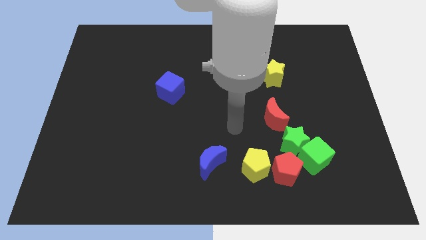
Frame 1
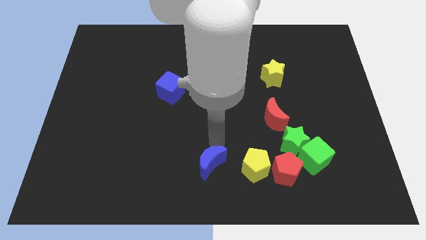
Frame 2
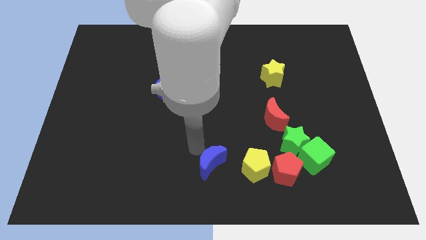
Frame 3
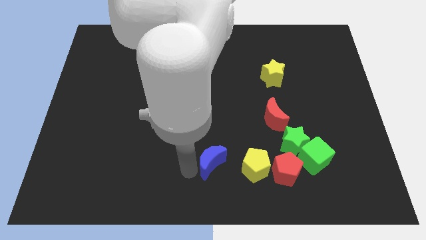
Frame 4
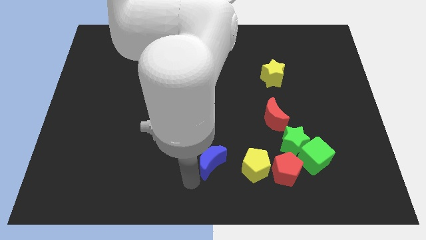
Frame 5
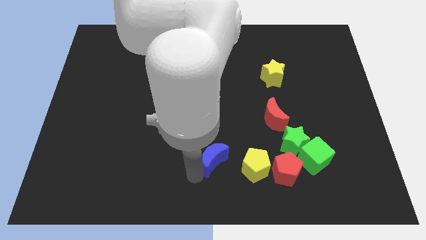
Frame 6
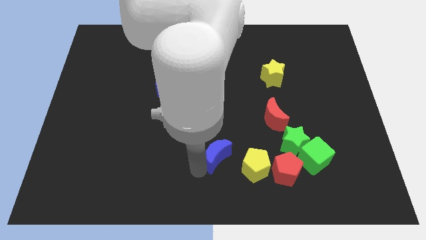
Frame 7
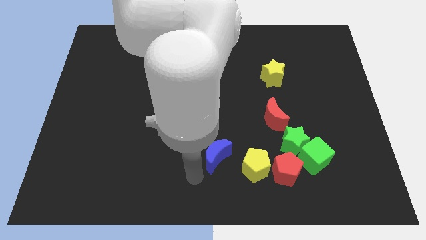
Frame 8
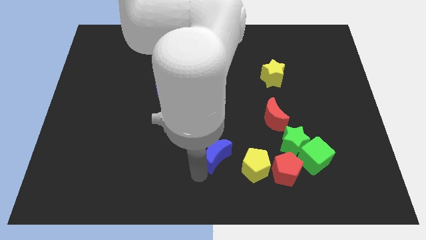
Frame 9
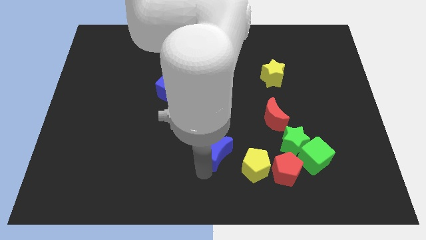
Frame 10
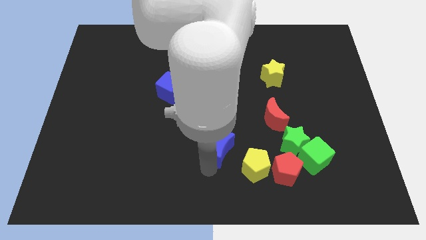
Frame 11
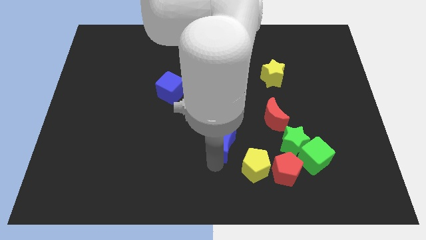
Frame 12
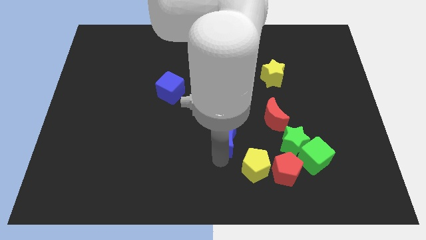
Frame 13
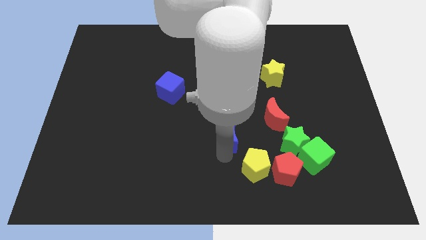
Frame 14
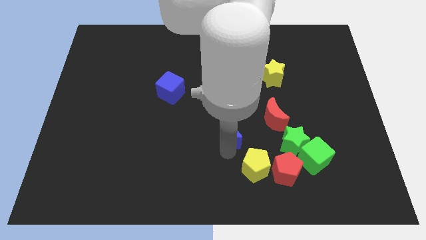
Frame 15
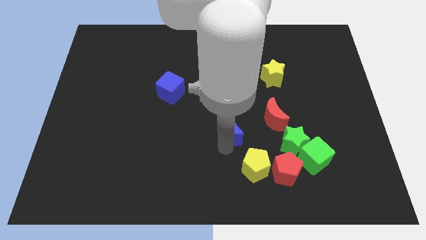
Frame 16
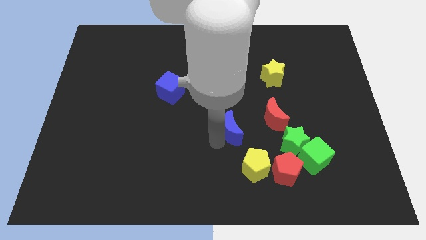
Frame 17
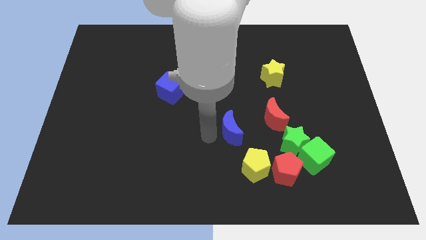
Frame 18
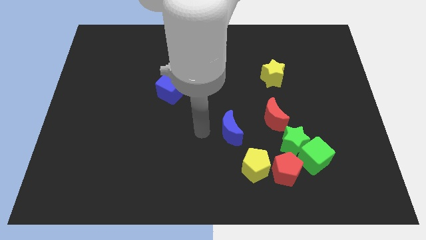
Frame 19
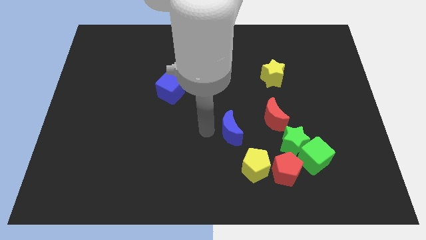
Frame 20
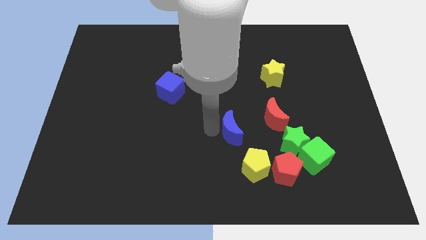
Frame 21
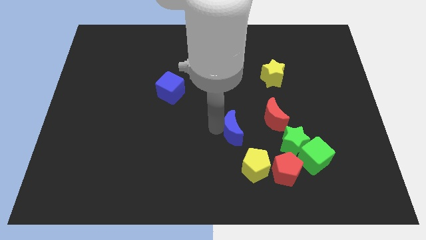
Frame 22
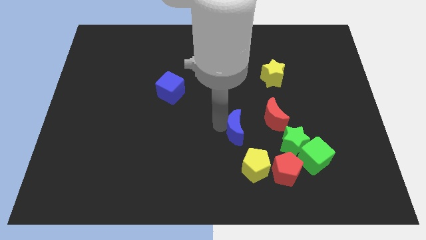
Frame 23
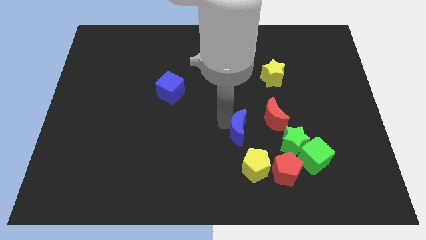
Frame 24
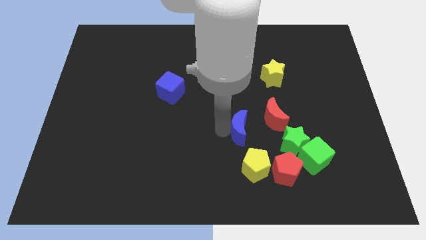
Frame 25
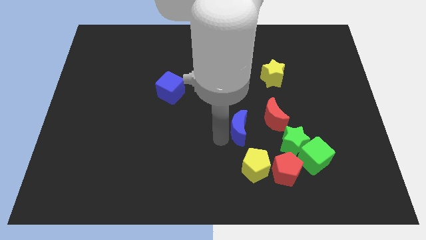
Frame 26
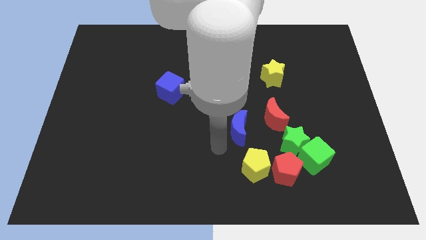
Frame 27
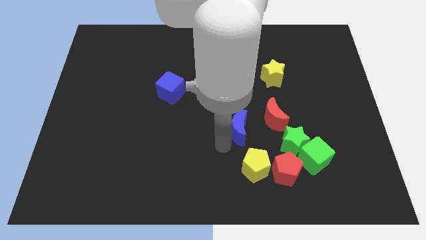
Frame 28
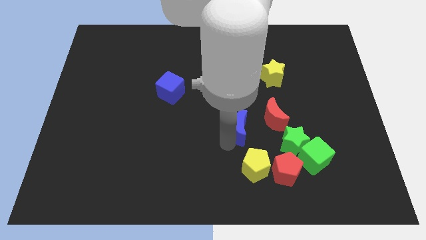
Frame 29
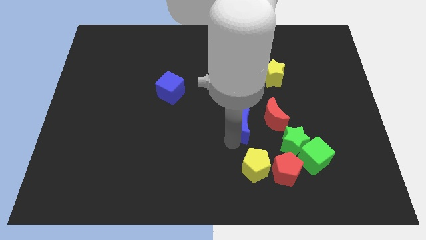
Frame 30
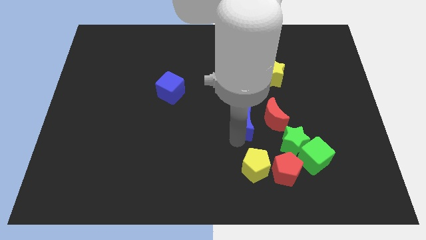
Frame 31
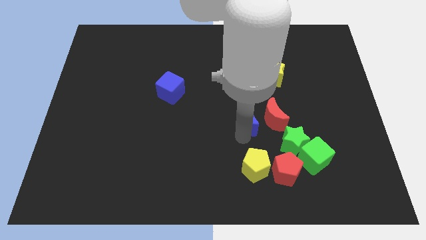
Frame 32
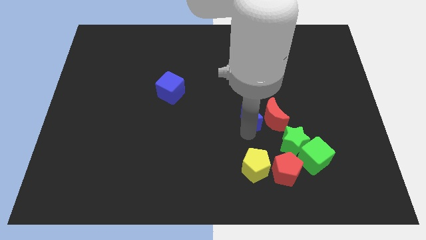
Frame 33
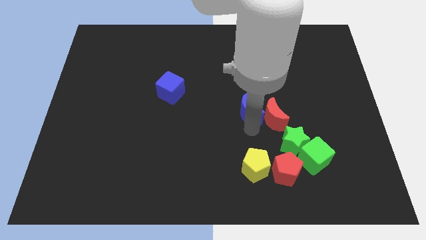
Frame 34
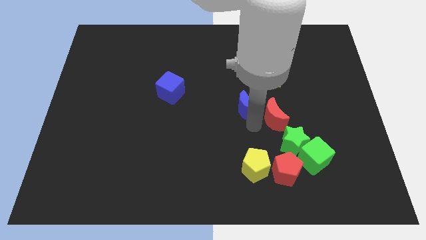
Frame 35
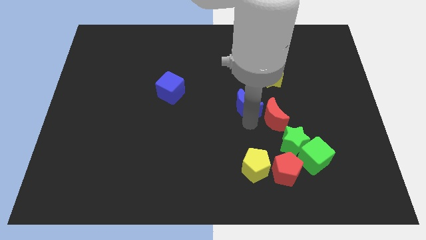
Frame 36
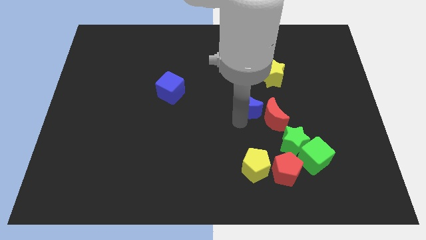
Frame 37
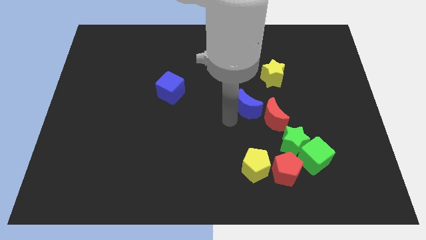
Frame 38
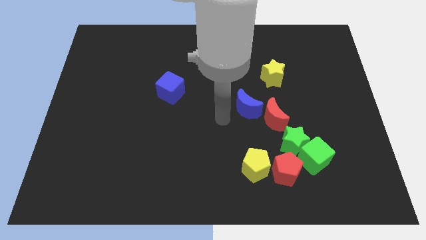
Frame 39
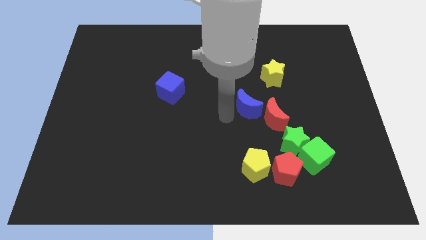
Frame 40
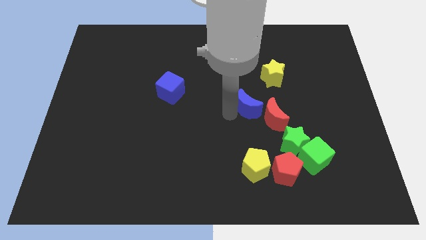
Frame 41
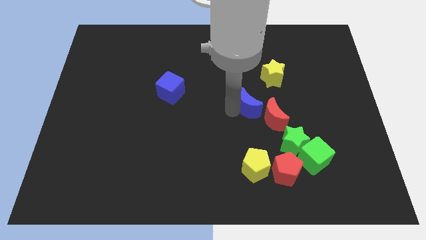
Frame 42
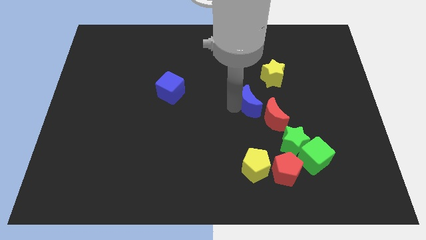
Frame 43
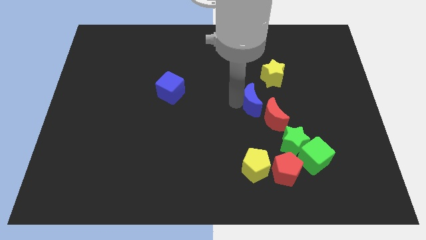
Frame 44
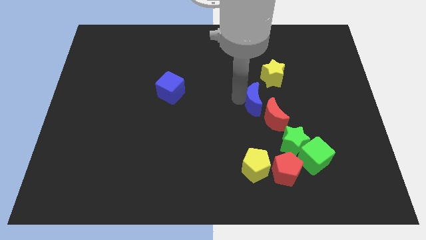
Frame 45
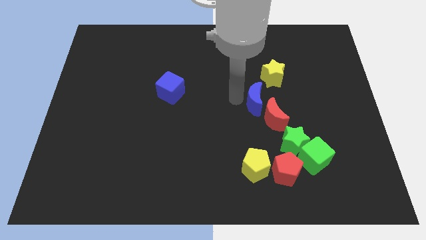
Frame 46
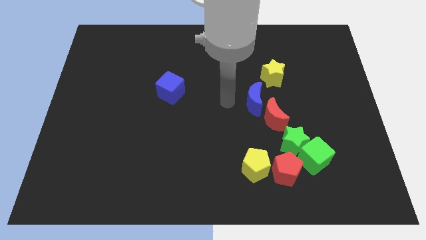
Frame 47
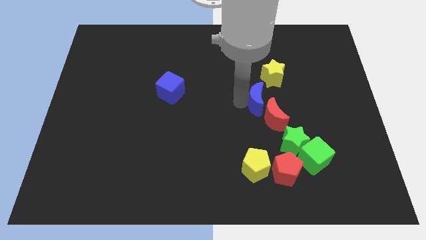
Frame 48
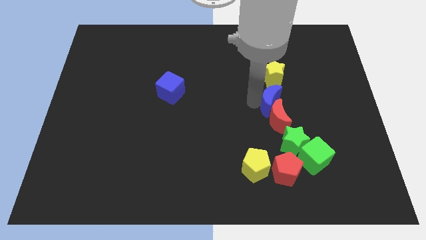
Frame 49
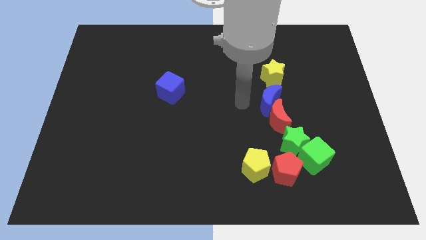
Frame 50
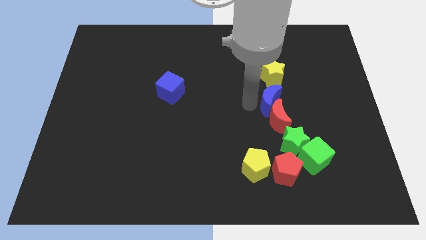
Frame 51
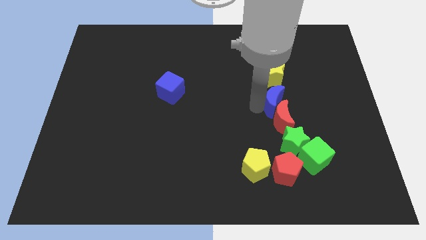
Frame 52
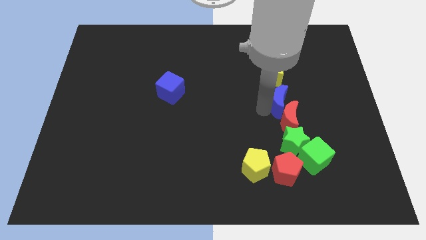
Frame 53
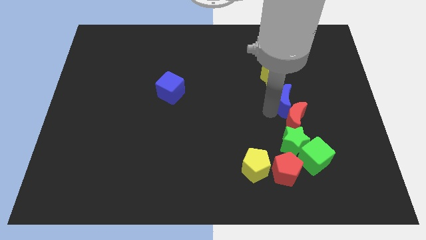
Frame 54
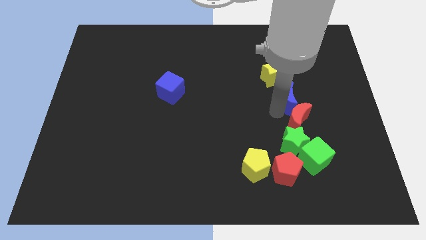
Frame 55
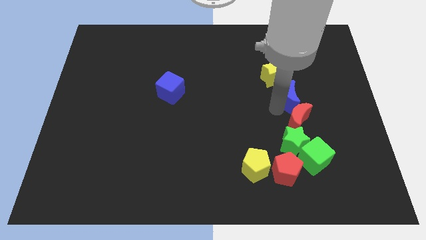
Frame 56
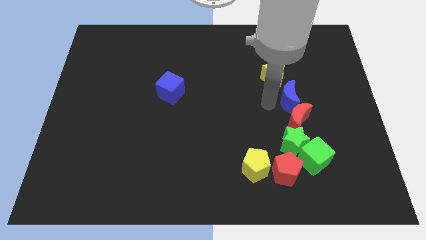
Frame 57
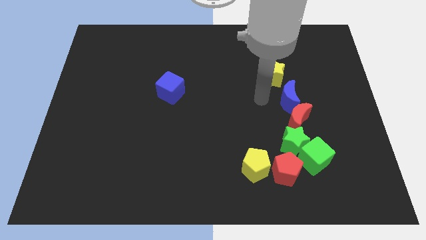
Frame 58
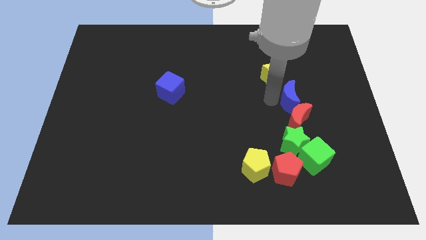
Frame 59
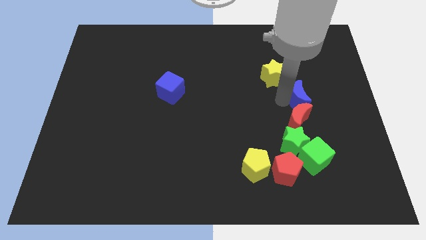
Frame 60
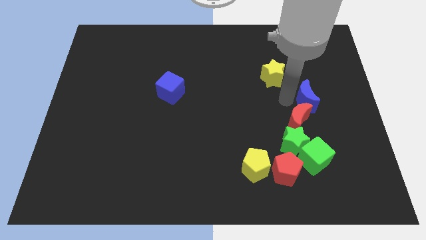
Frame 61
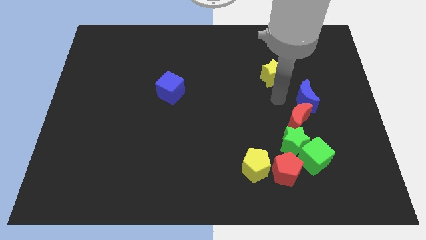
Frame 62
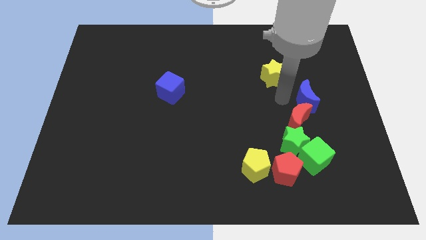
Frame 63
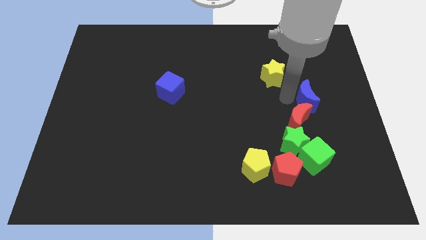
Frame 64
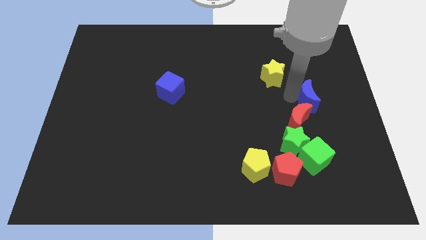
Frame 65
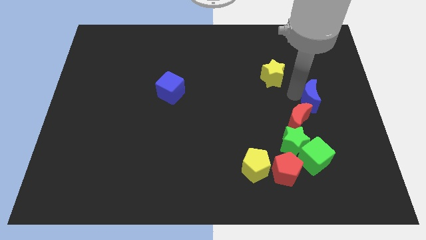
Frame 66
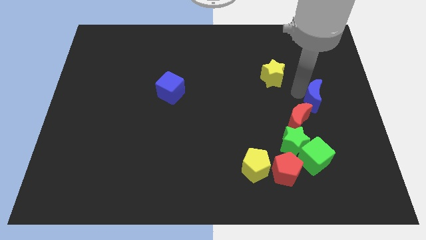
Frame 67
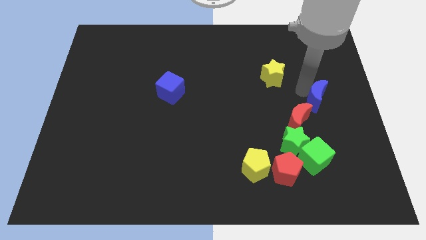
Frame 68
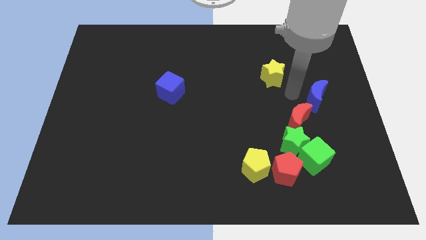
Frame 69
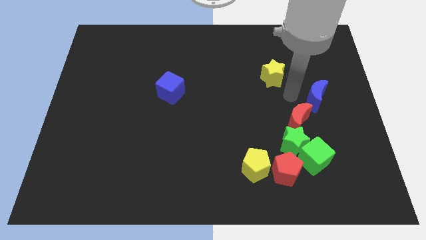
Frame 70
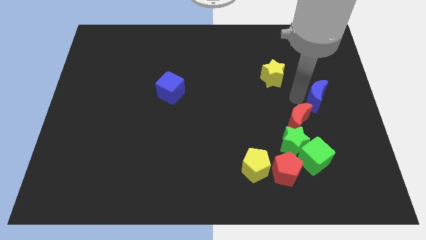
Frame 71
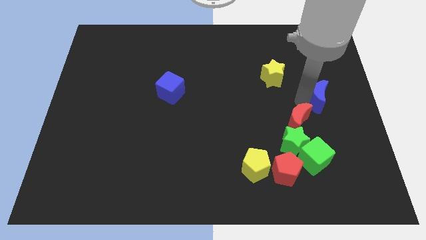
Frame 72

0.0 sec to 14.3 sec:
push the blue moon to the right side
